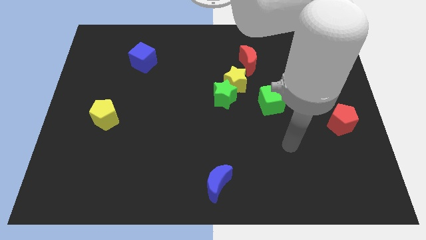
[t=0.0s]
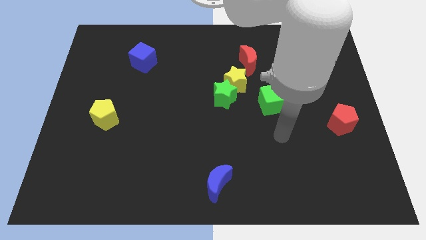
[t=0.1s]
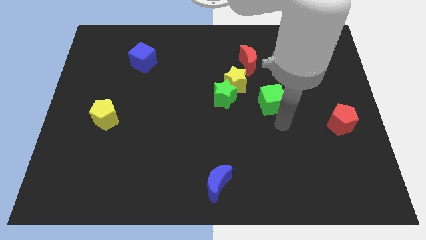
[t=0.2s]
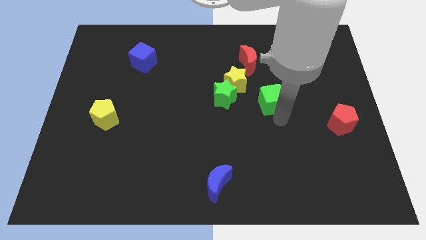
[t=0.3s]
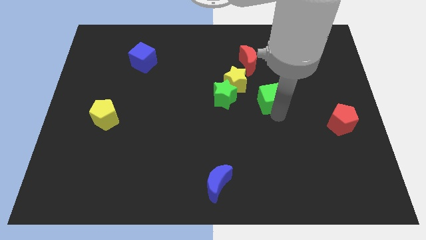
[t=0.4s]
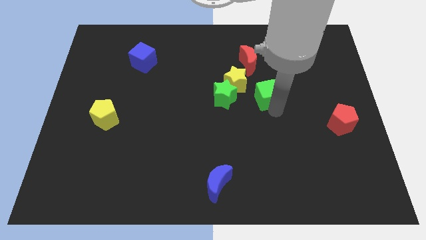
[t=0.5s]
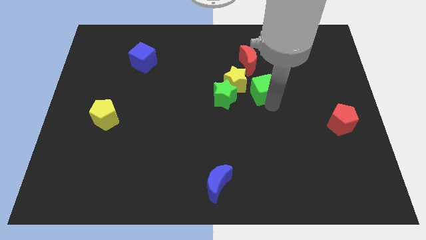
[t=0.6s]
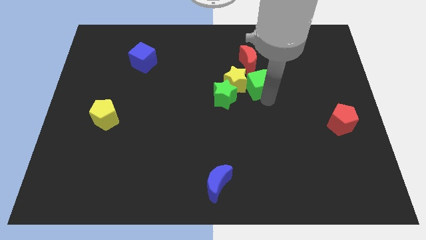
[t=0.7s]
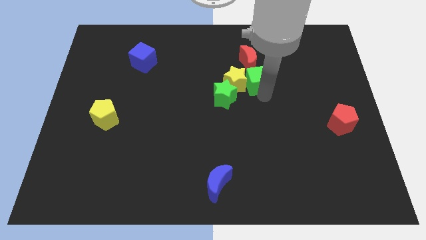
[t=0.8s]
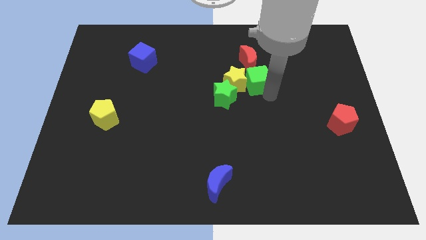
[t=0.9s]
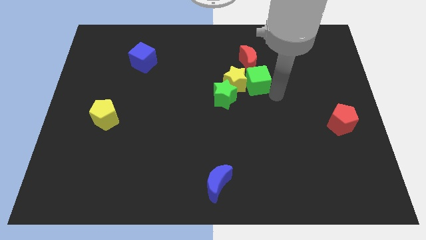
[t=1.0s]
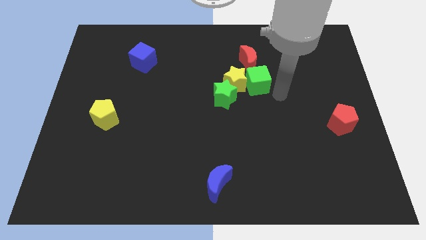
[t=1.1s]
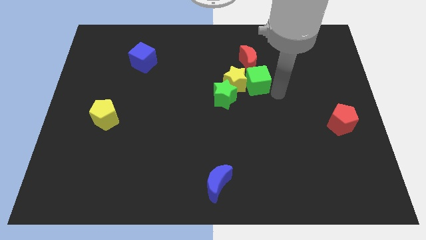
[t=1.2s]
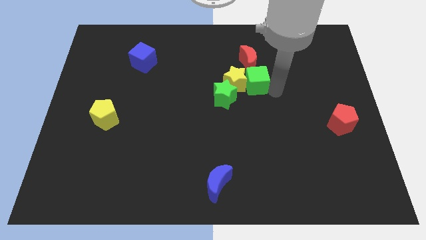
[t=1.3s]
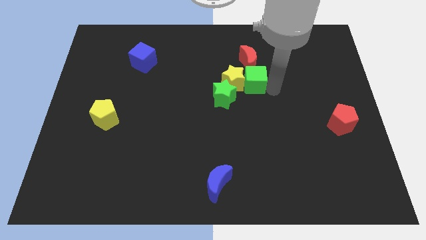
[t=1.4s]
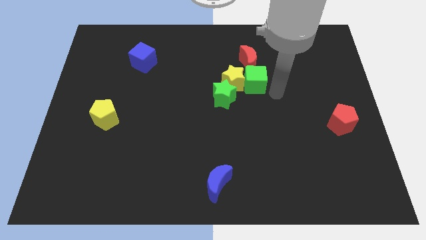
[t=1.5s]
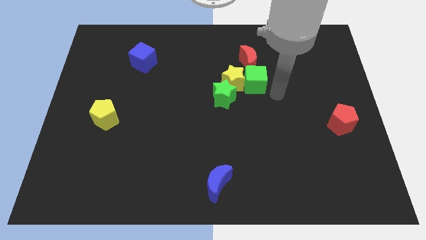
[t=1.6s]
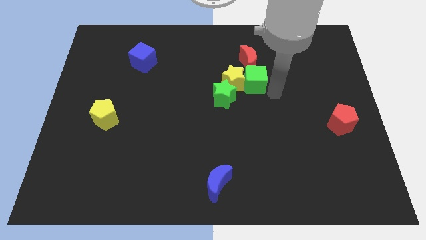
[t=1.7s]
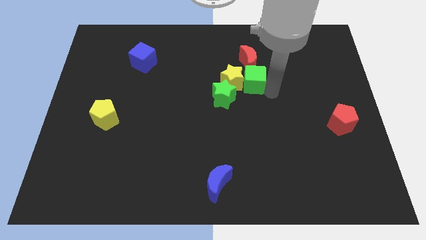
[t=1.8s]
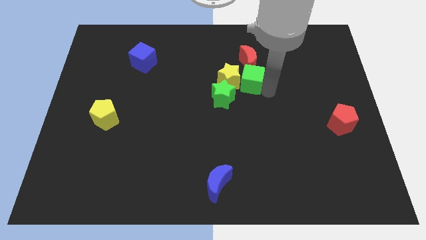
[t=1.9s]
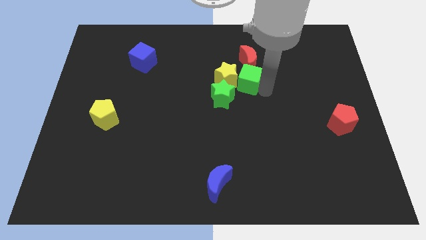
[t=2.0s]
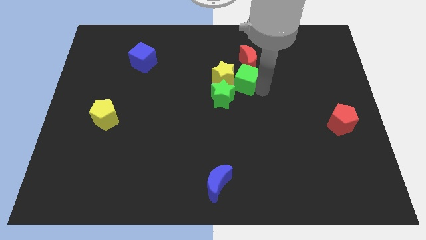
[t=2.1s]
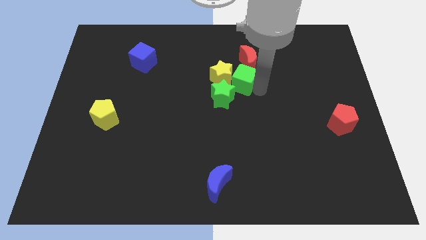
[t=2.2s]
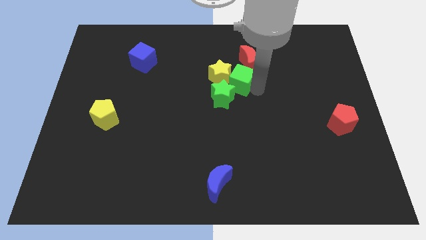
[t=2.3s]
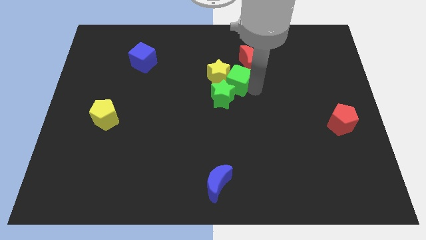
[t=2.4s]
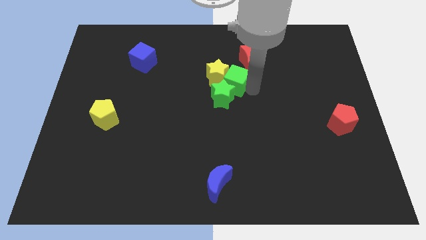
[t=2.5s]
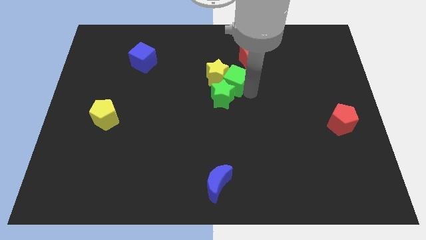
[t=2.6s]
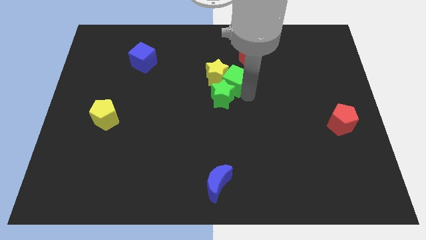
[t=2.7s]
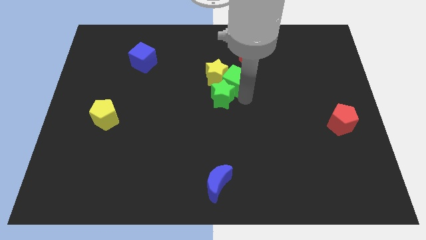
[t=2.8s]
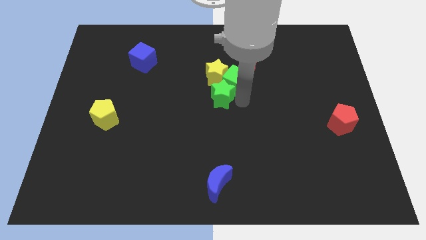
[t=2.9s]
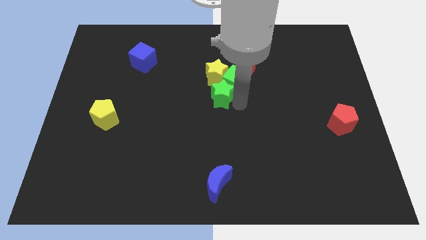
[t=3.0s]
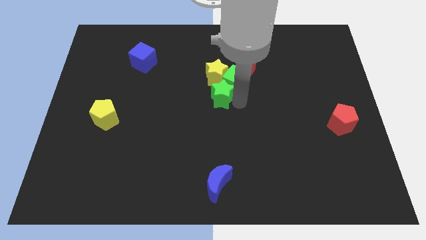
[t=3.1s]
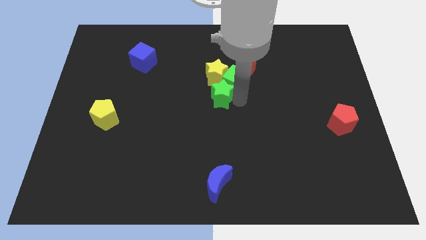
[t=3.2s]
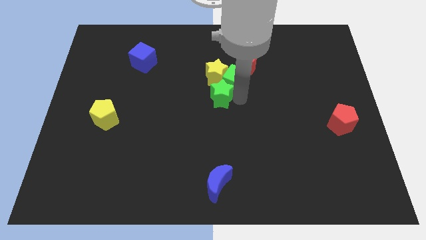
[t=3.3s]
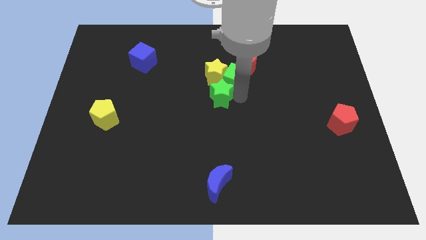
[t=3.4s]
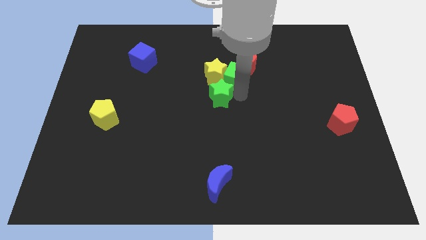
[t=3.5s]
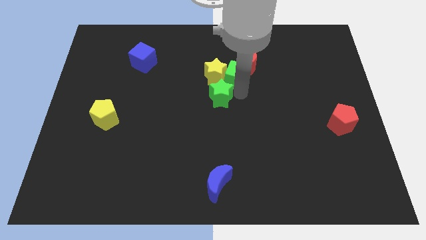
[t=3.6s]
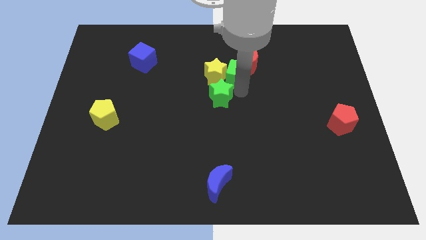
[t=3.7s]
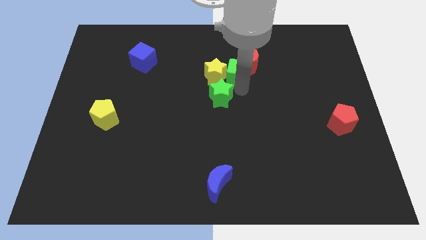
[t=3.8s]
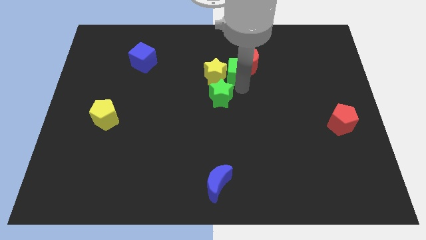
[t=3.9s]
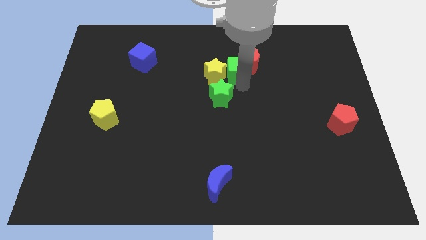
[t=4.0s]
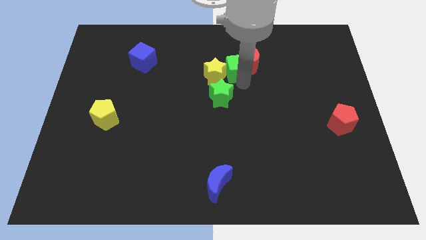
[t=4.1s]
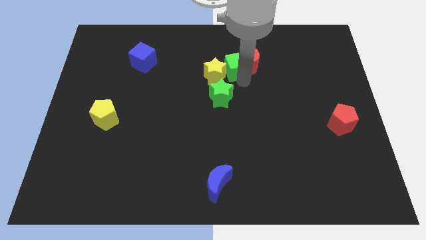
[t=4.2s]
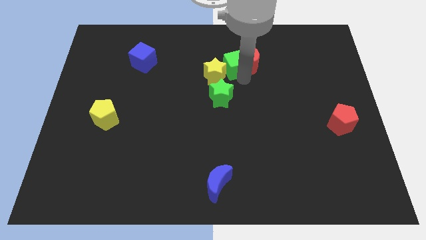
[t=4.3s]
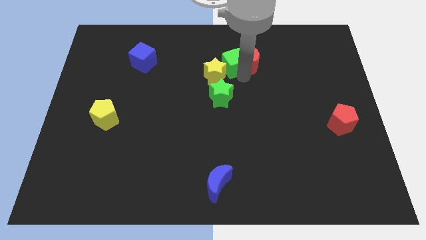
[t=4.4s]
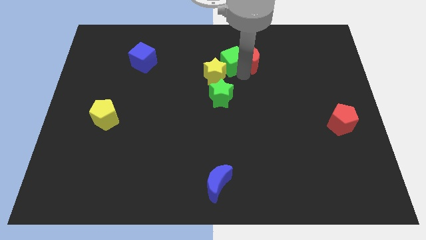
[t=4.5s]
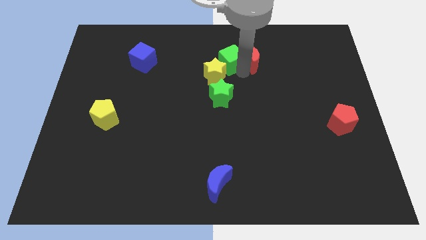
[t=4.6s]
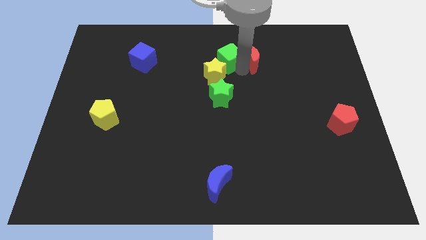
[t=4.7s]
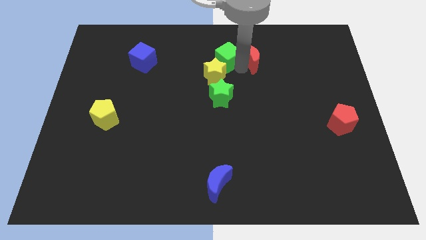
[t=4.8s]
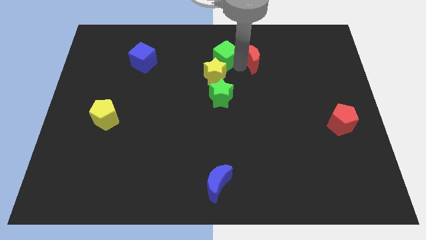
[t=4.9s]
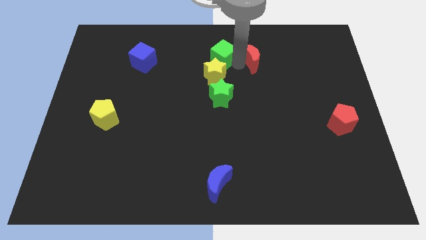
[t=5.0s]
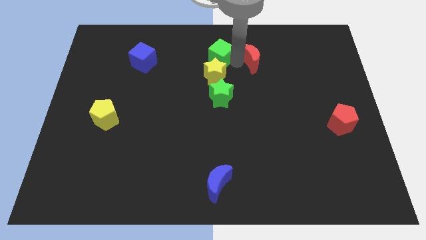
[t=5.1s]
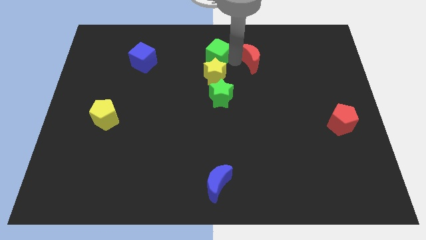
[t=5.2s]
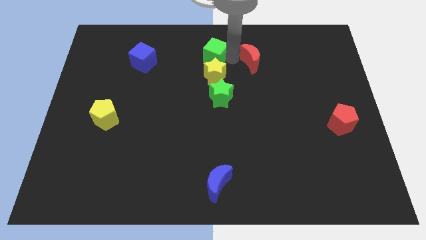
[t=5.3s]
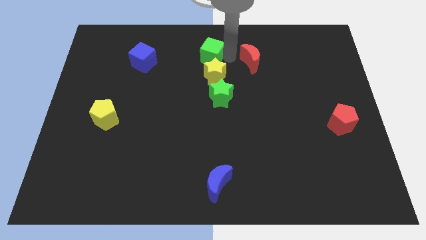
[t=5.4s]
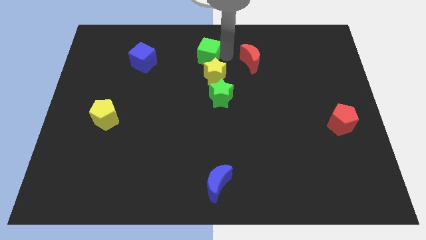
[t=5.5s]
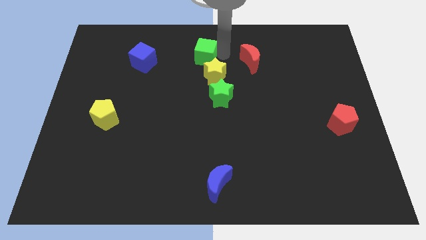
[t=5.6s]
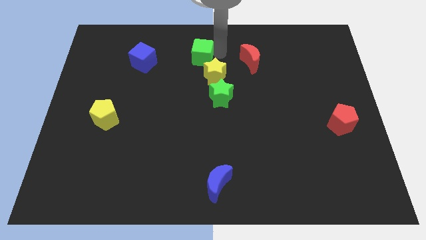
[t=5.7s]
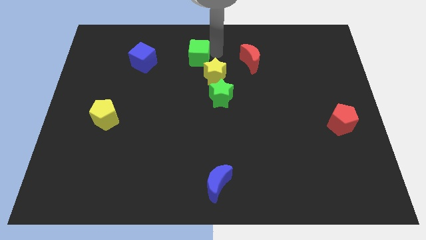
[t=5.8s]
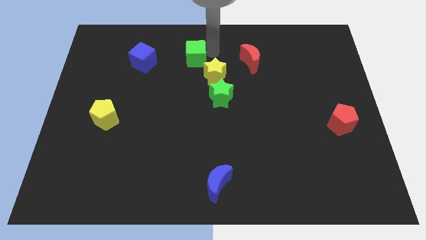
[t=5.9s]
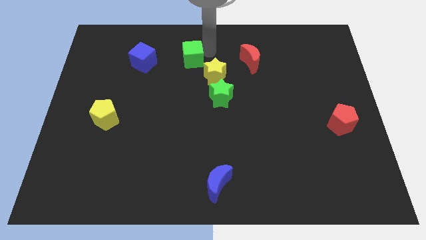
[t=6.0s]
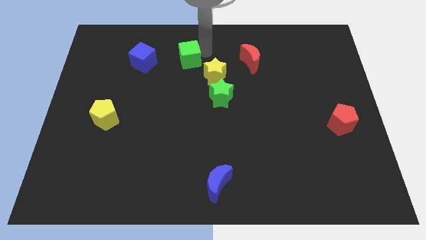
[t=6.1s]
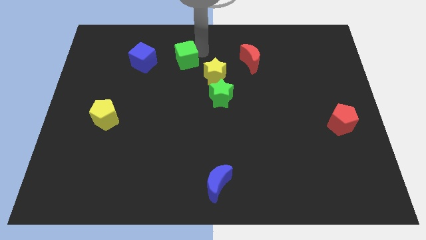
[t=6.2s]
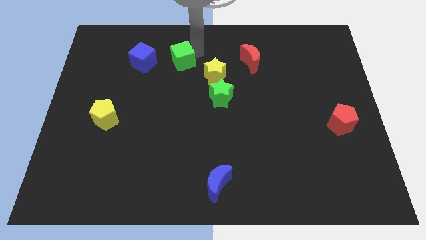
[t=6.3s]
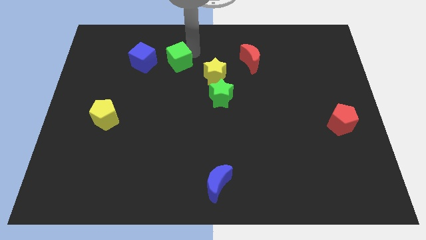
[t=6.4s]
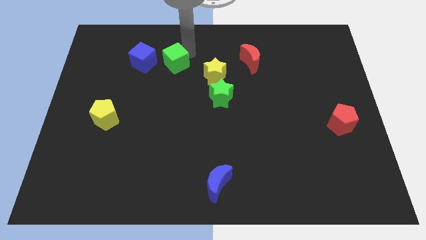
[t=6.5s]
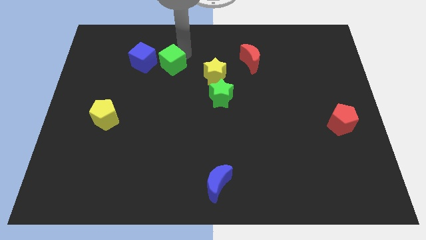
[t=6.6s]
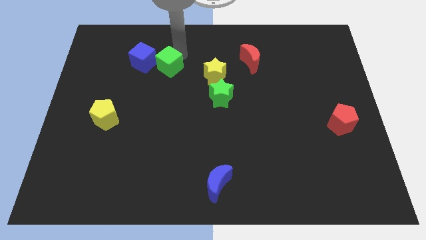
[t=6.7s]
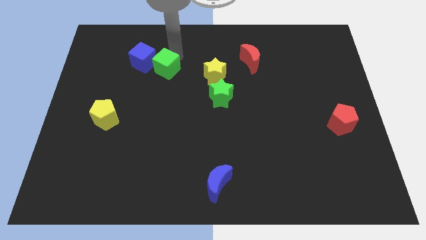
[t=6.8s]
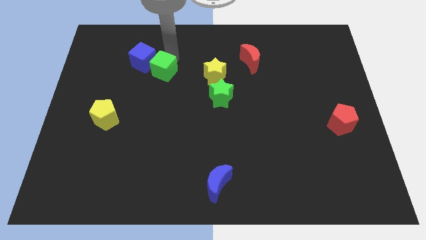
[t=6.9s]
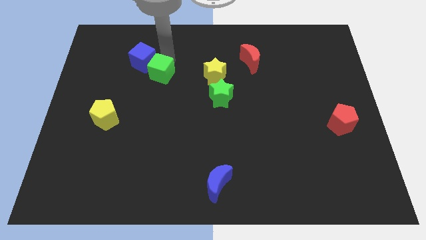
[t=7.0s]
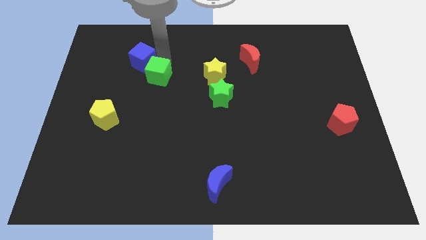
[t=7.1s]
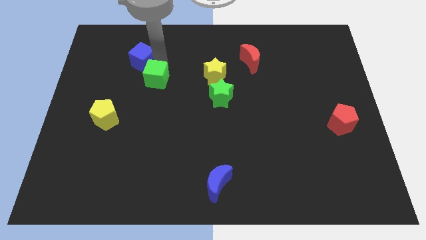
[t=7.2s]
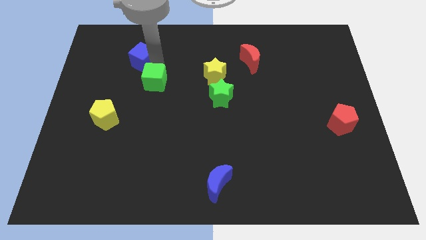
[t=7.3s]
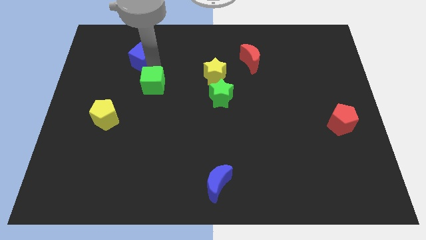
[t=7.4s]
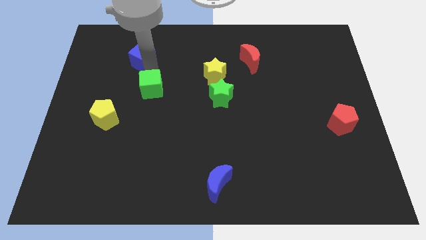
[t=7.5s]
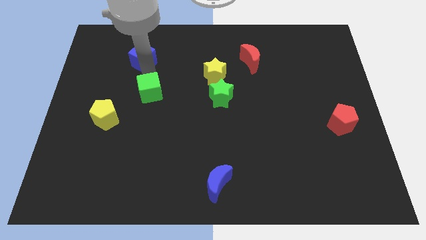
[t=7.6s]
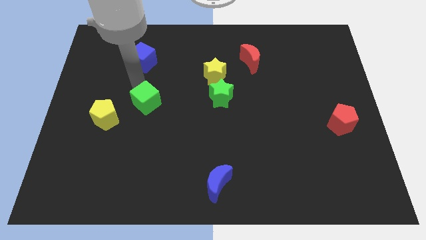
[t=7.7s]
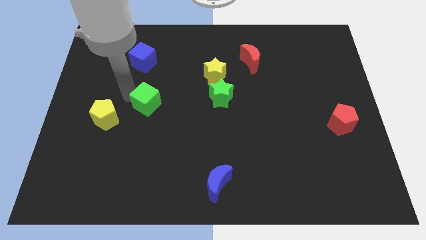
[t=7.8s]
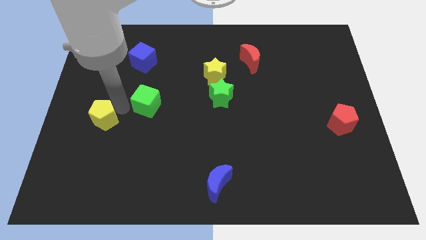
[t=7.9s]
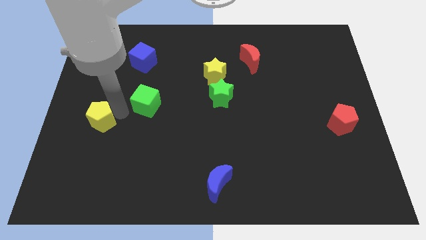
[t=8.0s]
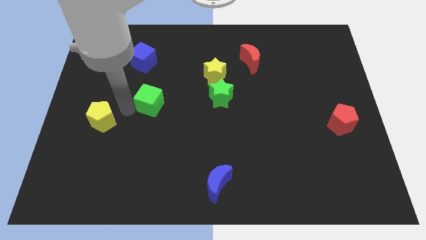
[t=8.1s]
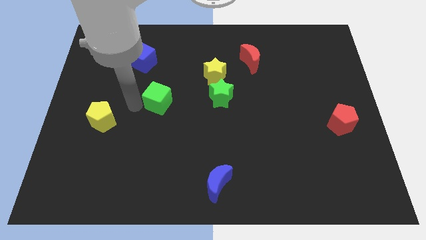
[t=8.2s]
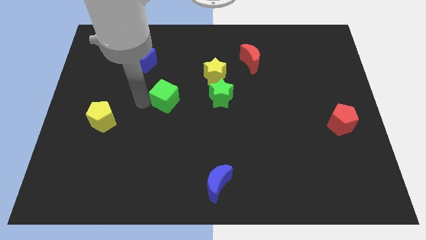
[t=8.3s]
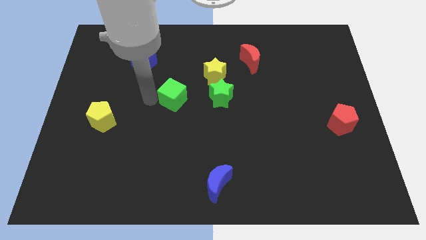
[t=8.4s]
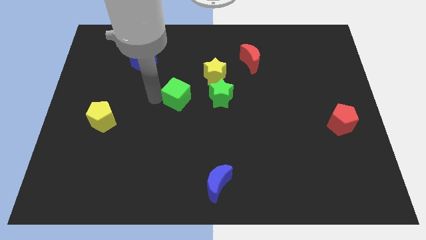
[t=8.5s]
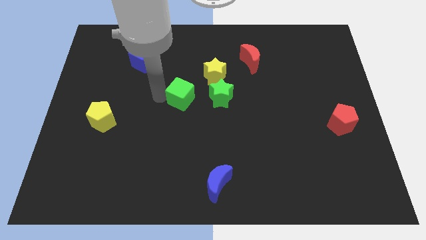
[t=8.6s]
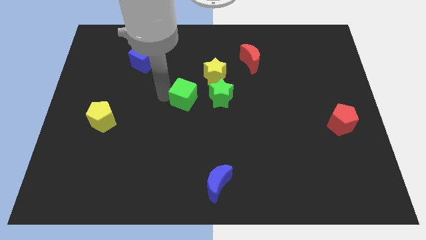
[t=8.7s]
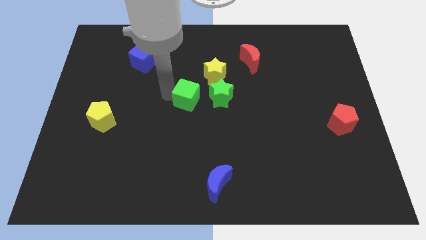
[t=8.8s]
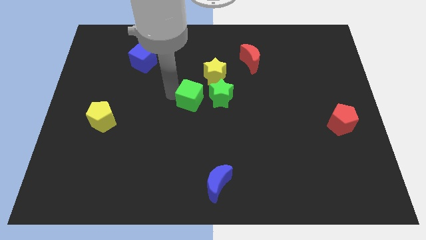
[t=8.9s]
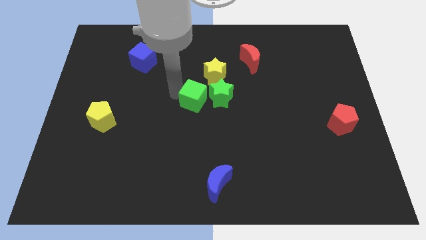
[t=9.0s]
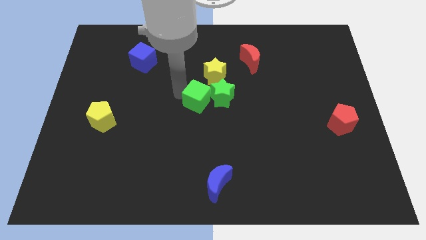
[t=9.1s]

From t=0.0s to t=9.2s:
push the green cube diagonally up and to the left of the green star
